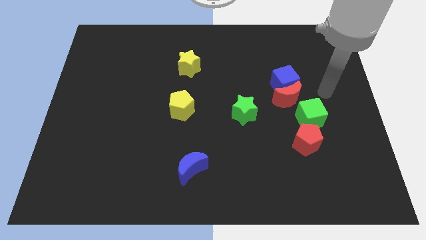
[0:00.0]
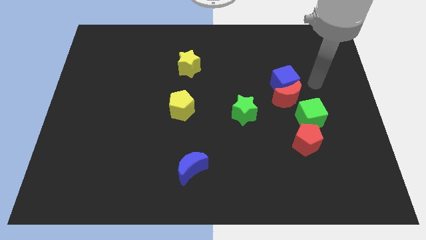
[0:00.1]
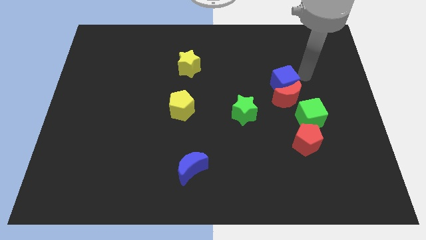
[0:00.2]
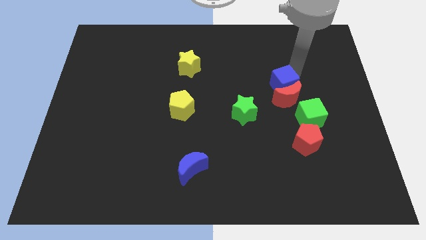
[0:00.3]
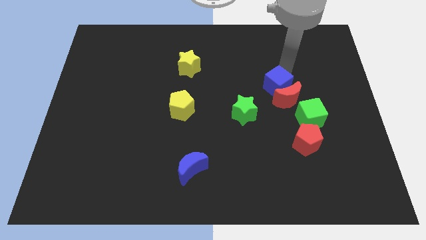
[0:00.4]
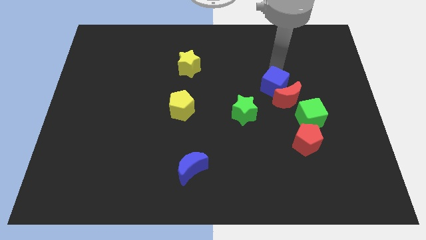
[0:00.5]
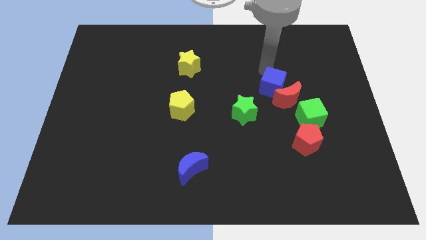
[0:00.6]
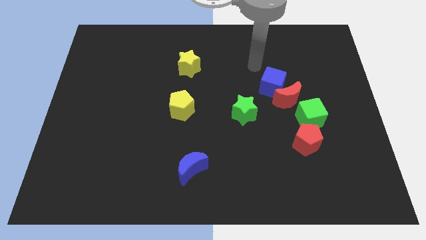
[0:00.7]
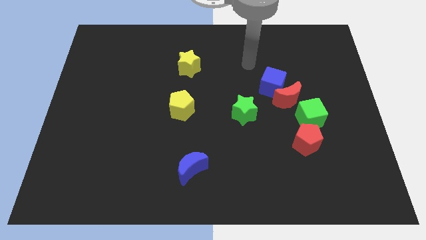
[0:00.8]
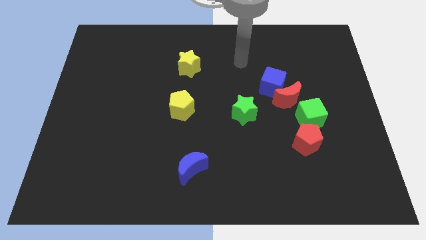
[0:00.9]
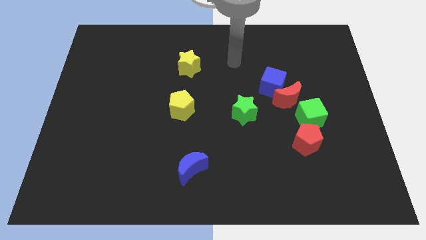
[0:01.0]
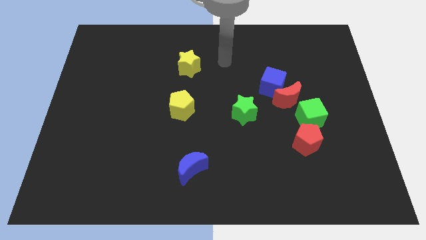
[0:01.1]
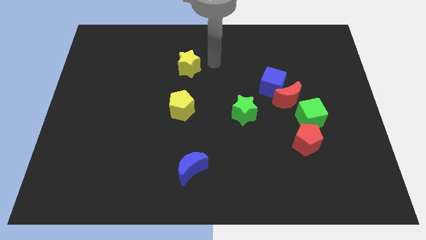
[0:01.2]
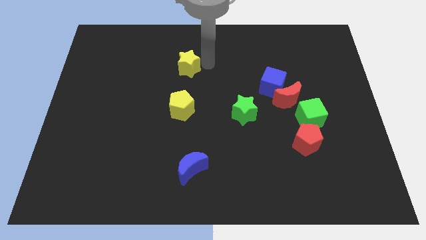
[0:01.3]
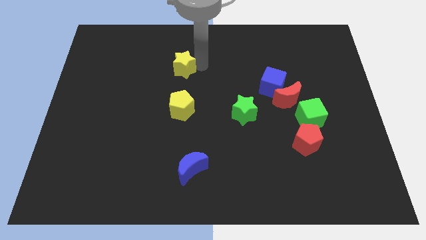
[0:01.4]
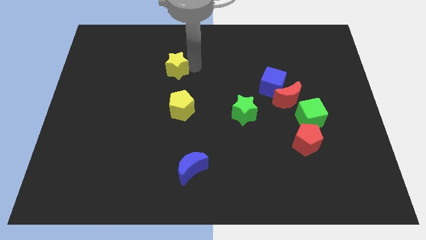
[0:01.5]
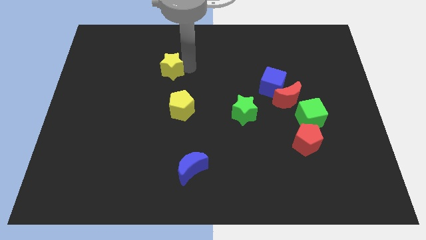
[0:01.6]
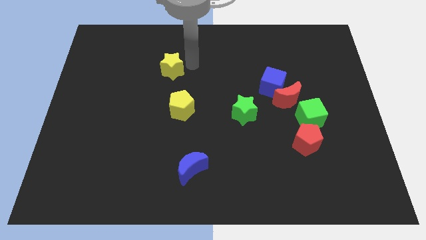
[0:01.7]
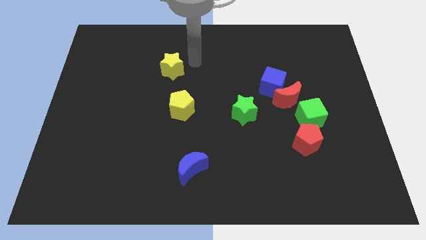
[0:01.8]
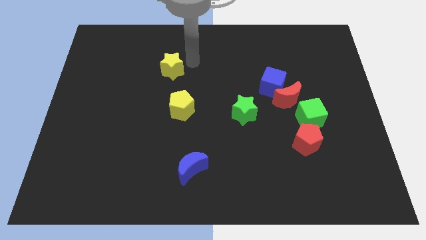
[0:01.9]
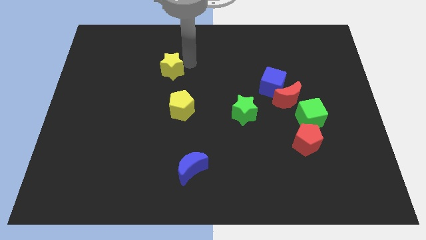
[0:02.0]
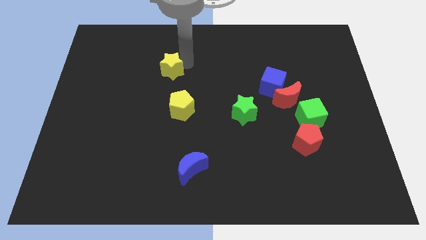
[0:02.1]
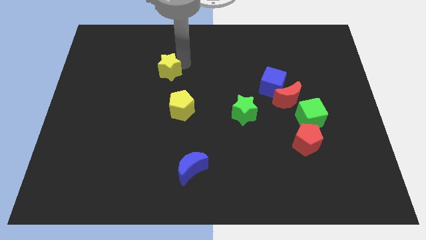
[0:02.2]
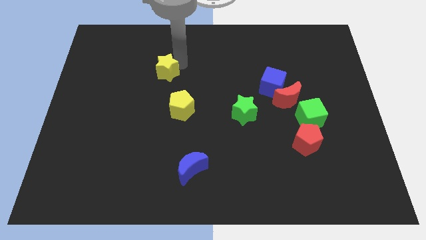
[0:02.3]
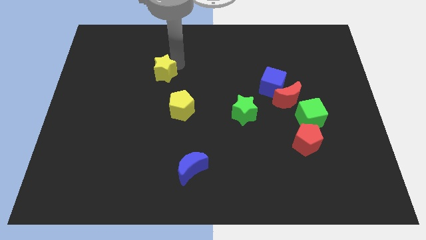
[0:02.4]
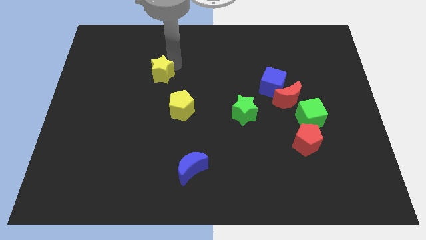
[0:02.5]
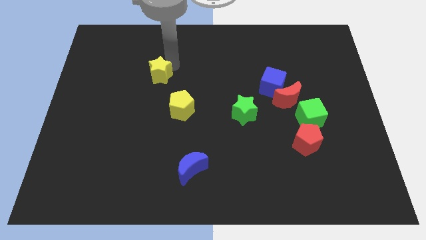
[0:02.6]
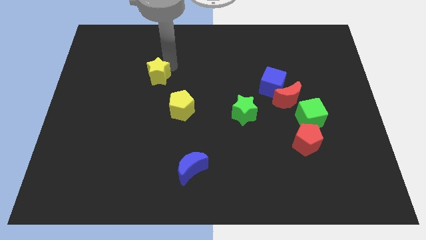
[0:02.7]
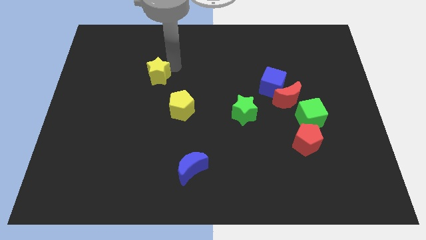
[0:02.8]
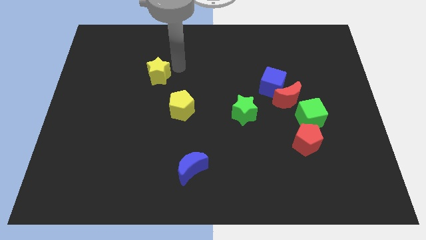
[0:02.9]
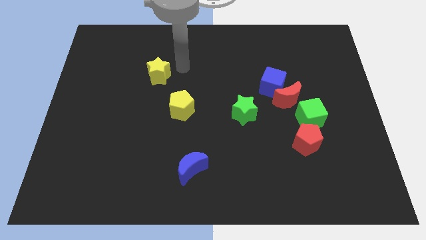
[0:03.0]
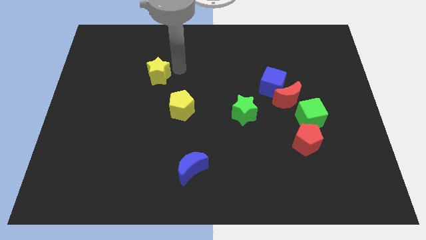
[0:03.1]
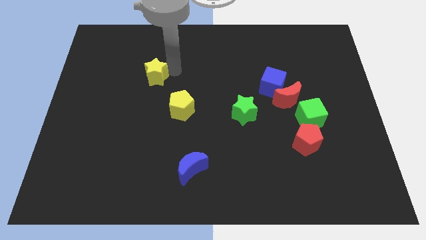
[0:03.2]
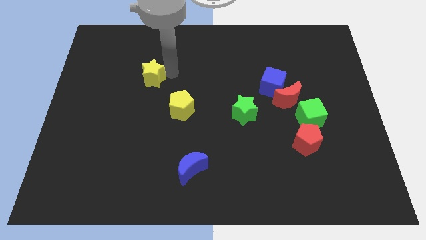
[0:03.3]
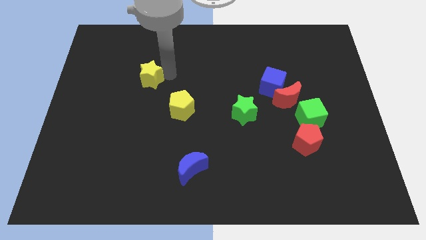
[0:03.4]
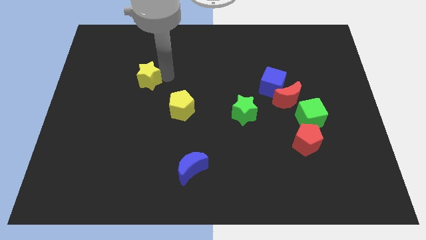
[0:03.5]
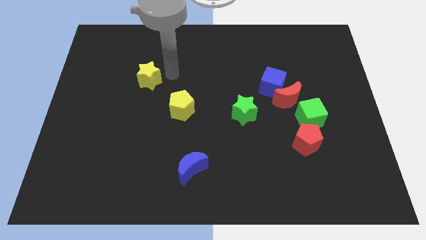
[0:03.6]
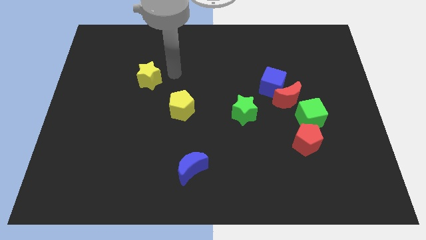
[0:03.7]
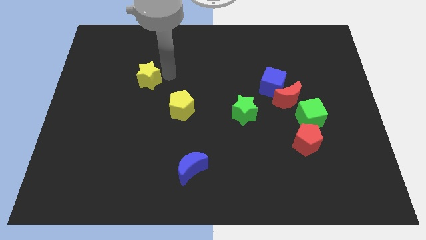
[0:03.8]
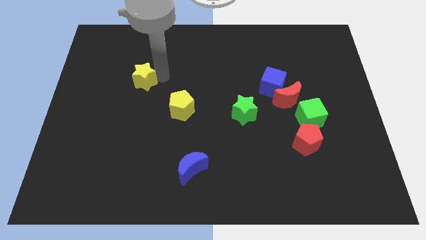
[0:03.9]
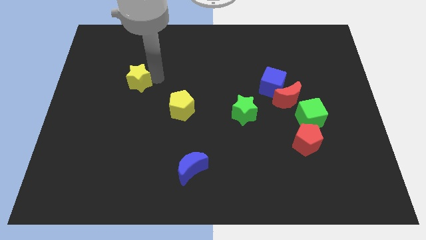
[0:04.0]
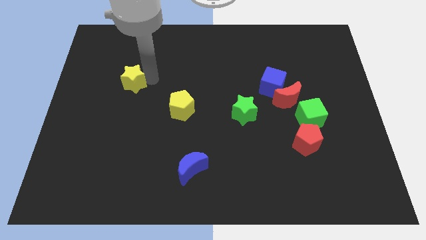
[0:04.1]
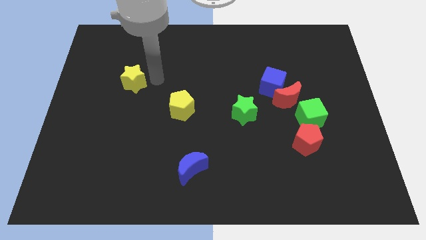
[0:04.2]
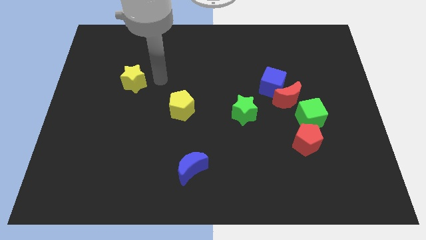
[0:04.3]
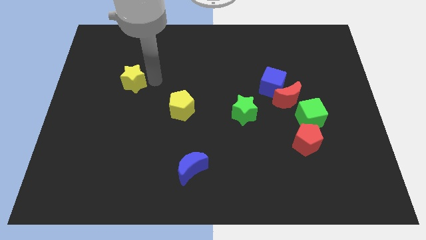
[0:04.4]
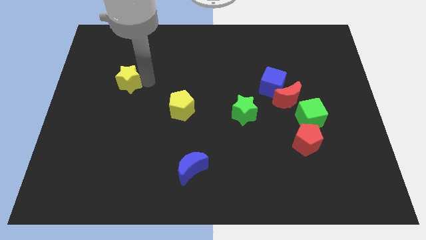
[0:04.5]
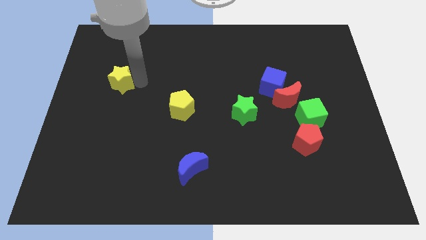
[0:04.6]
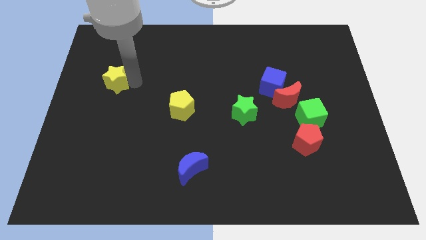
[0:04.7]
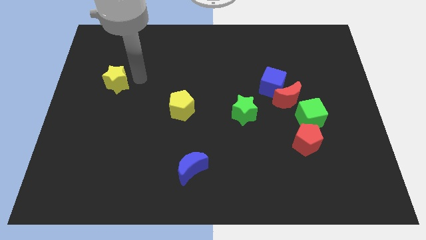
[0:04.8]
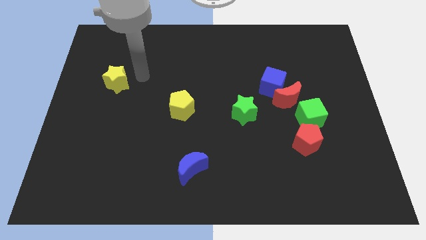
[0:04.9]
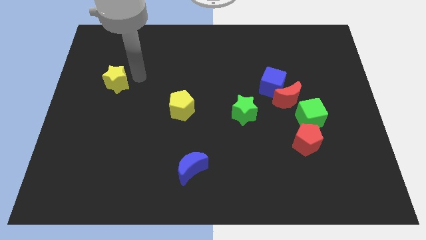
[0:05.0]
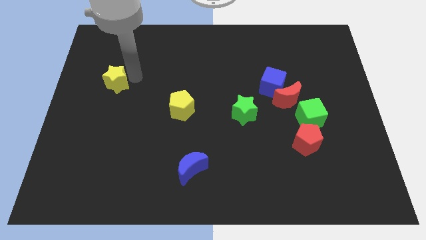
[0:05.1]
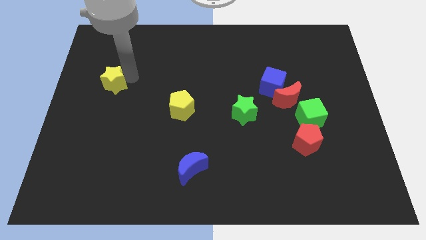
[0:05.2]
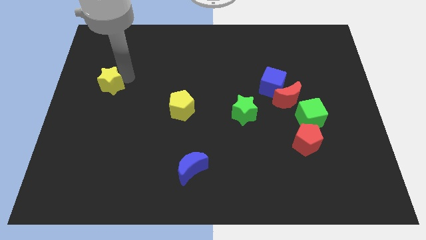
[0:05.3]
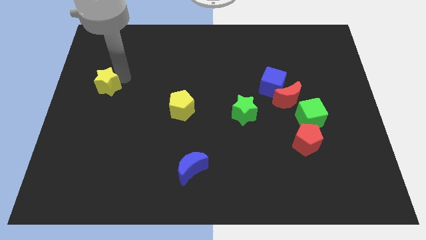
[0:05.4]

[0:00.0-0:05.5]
push the yellow star to the center left
